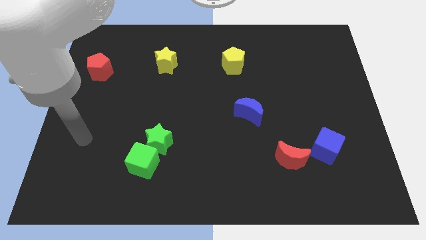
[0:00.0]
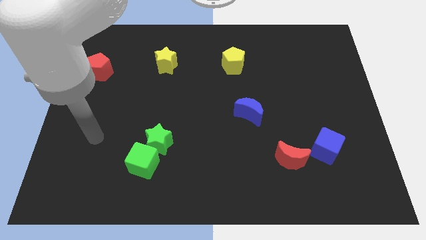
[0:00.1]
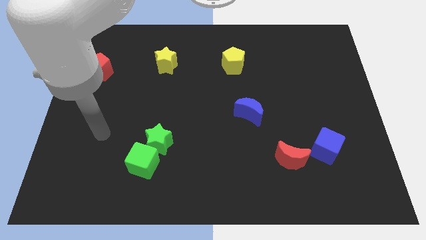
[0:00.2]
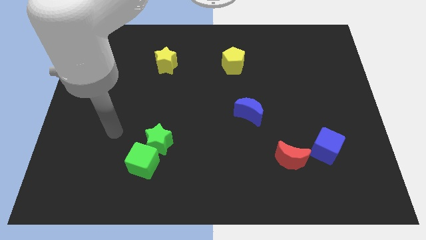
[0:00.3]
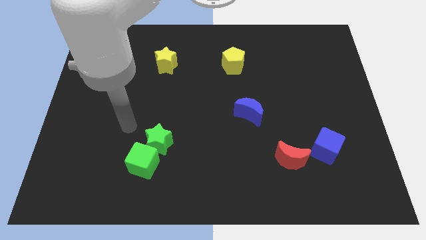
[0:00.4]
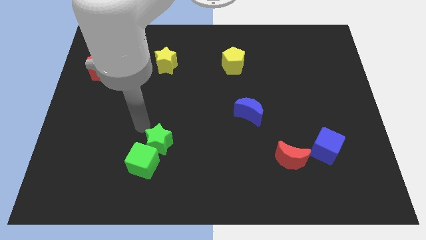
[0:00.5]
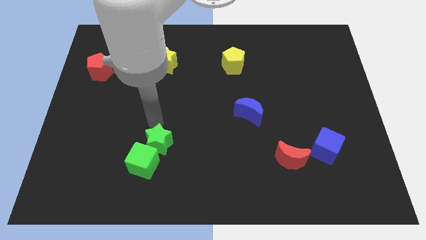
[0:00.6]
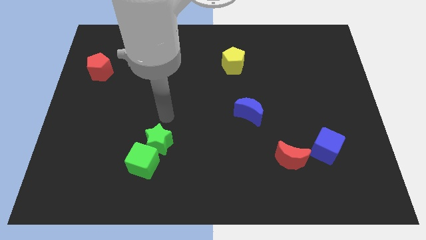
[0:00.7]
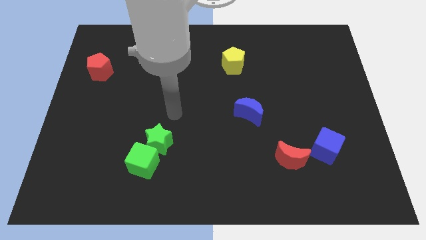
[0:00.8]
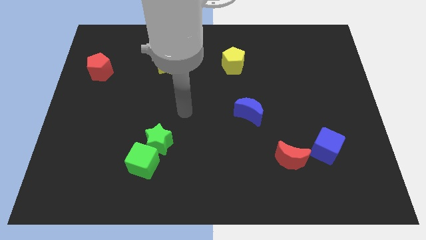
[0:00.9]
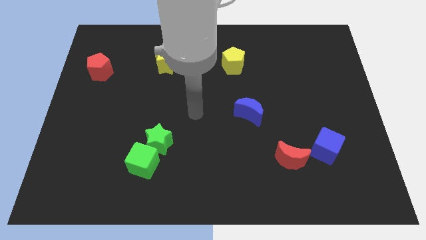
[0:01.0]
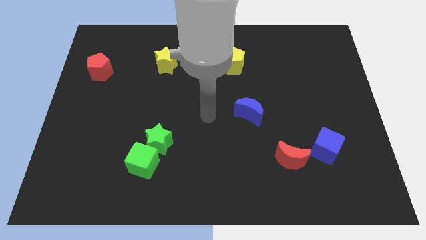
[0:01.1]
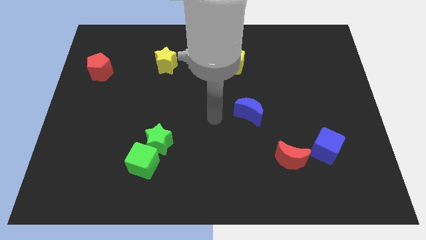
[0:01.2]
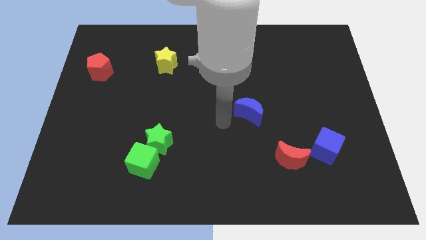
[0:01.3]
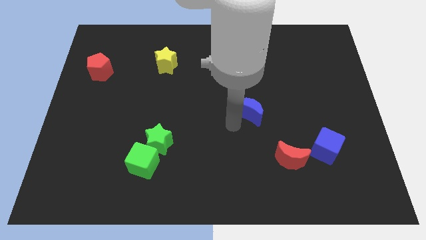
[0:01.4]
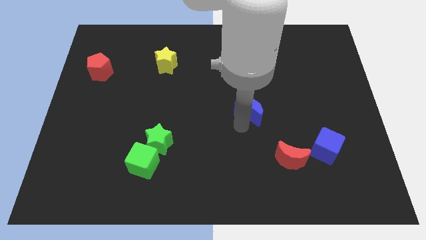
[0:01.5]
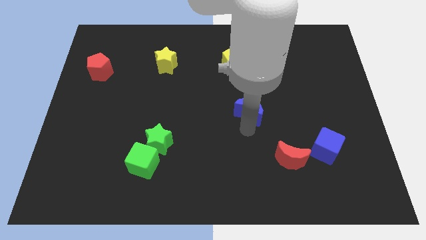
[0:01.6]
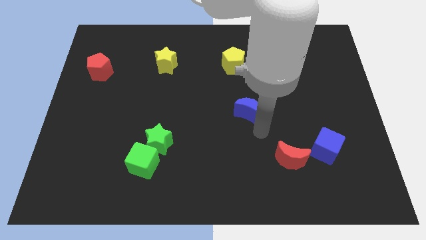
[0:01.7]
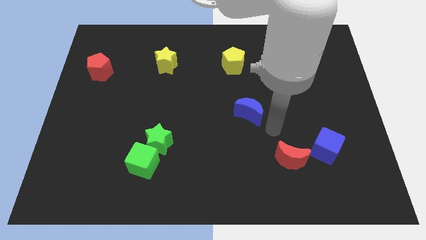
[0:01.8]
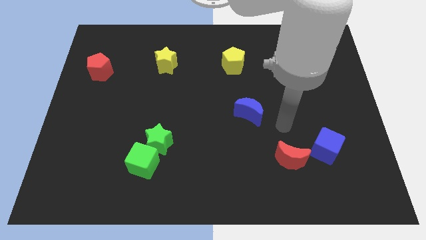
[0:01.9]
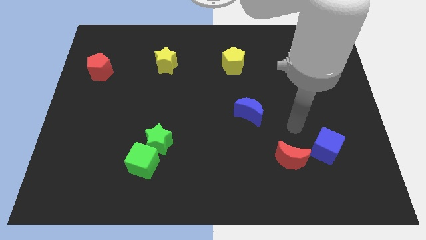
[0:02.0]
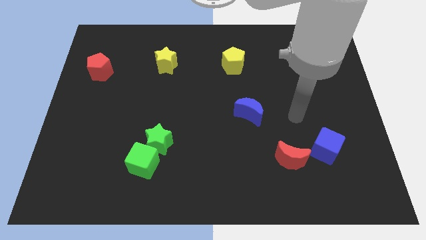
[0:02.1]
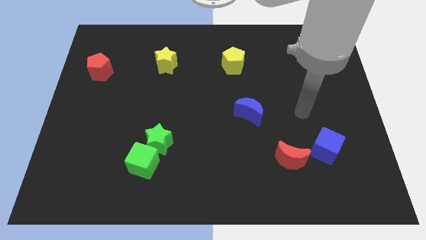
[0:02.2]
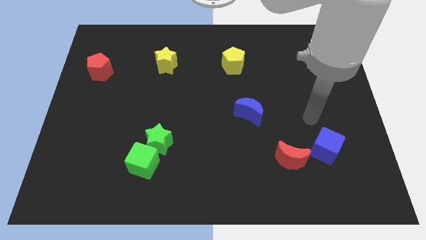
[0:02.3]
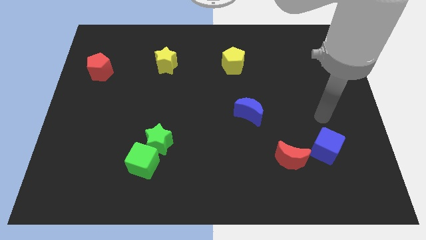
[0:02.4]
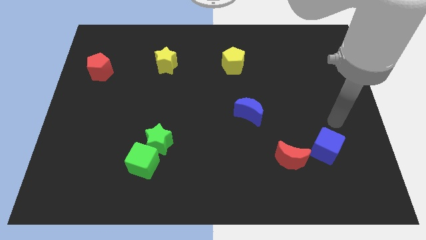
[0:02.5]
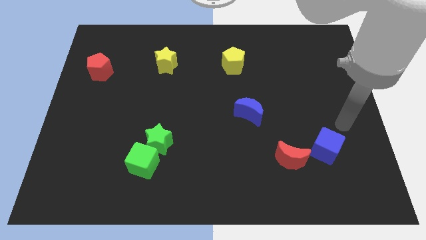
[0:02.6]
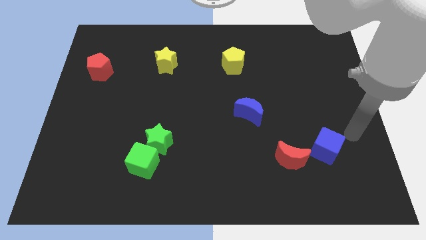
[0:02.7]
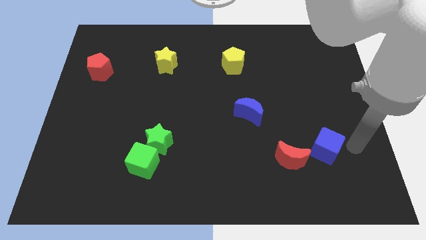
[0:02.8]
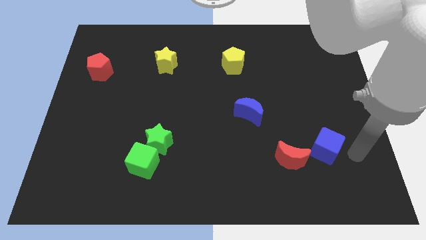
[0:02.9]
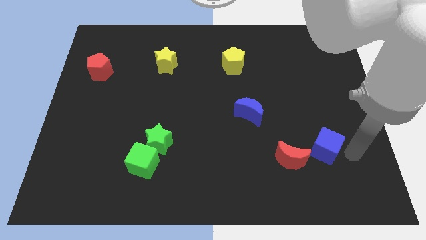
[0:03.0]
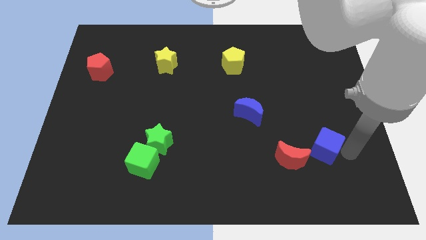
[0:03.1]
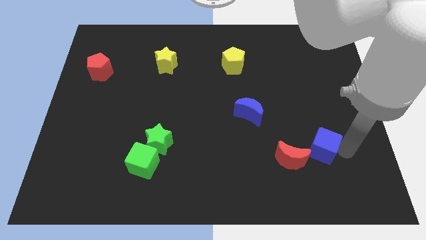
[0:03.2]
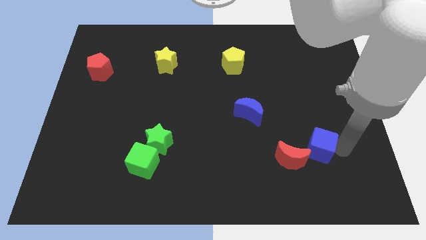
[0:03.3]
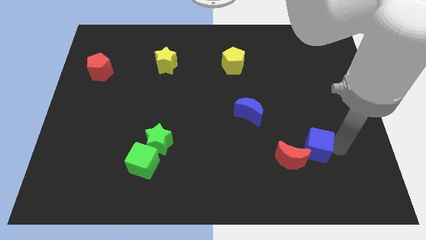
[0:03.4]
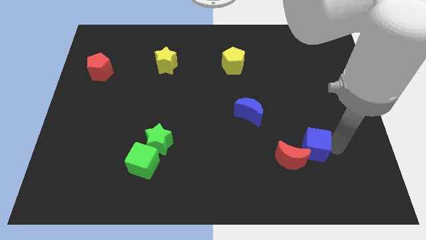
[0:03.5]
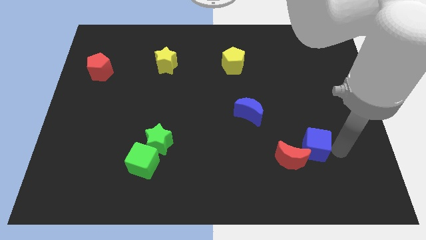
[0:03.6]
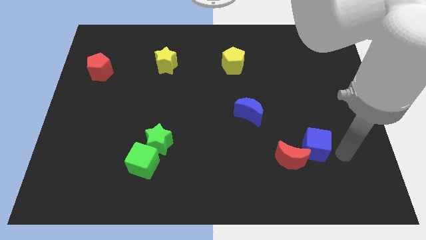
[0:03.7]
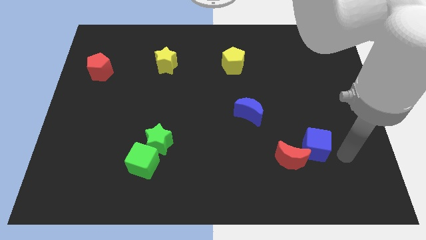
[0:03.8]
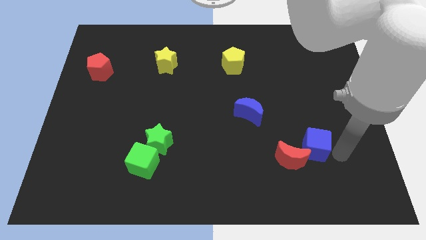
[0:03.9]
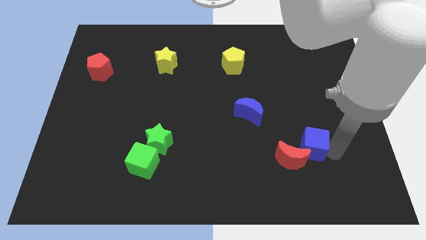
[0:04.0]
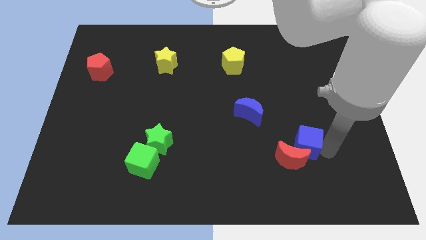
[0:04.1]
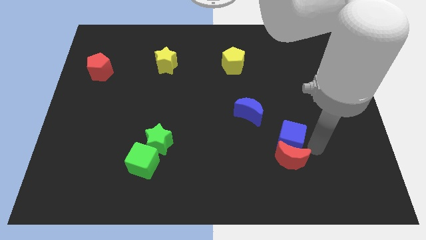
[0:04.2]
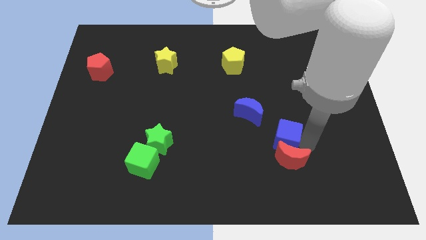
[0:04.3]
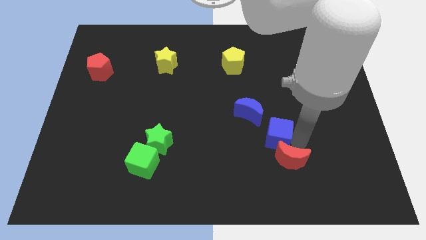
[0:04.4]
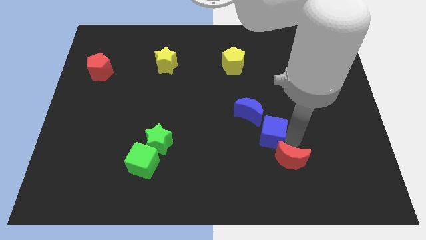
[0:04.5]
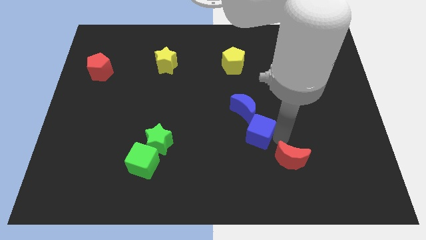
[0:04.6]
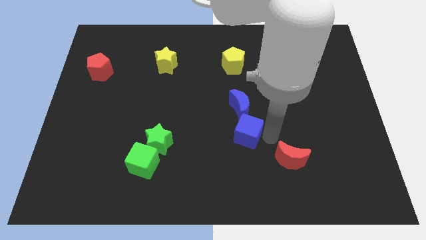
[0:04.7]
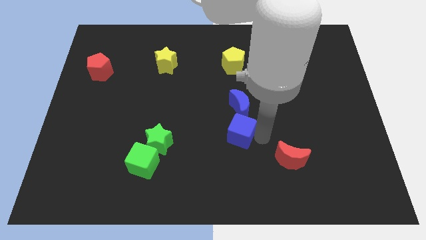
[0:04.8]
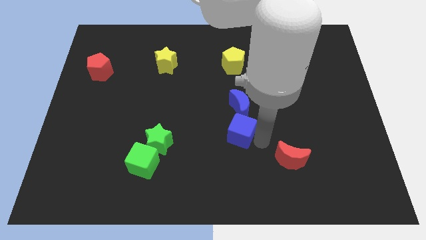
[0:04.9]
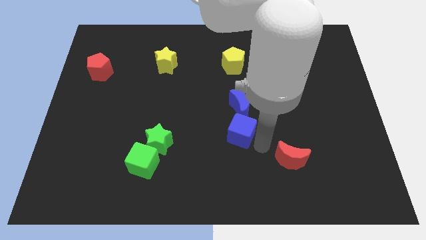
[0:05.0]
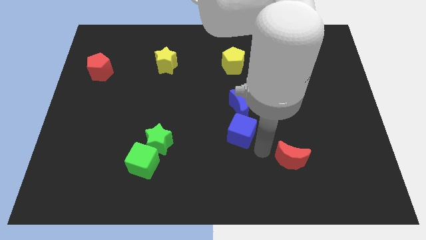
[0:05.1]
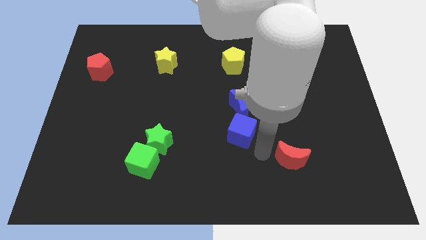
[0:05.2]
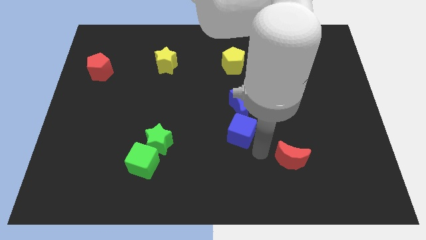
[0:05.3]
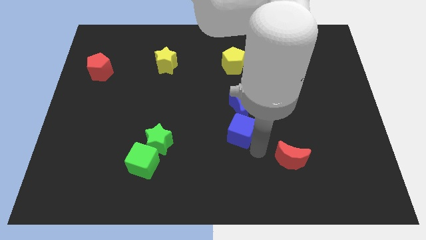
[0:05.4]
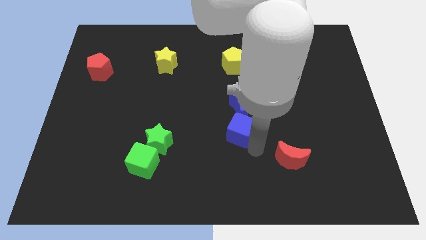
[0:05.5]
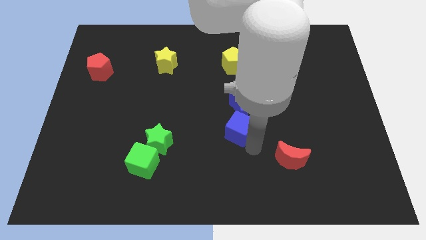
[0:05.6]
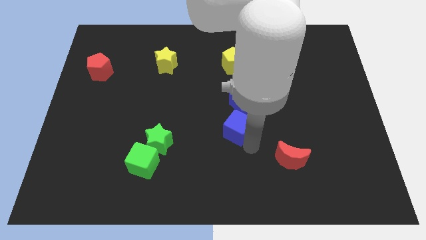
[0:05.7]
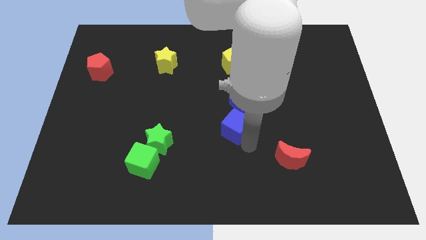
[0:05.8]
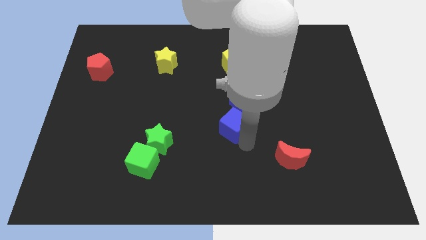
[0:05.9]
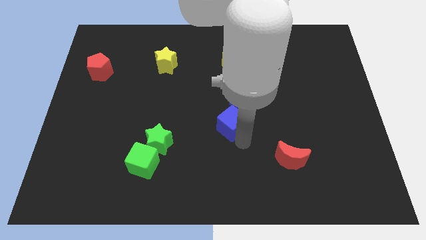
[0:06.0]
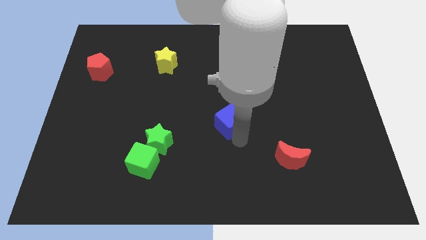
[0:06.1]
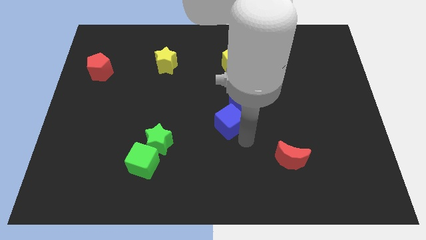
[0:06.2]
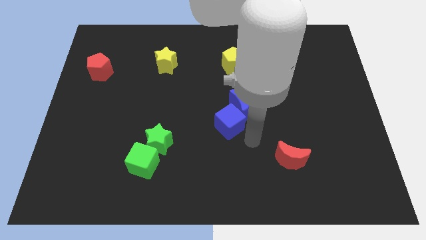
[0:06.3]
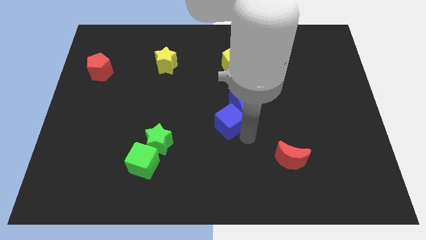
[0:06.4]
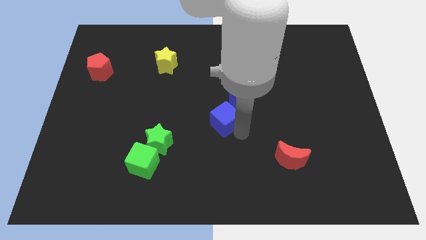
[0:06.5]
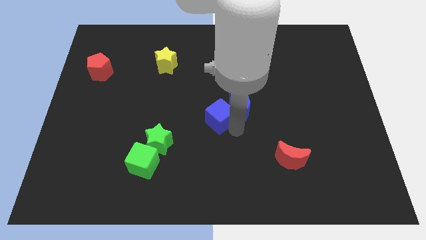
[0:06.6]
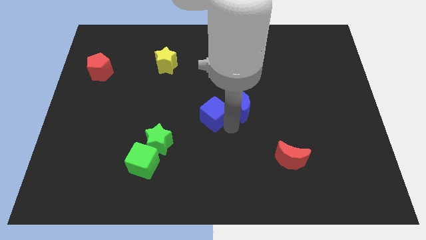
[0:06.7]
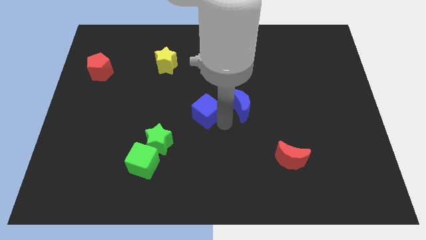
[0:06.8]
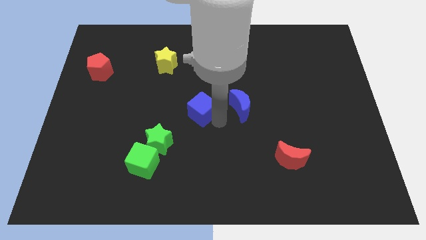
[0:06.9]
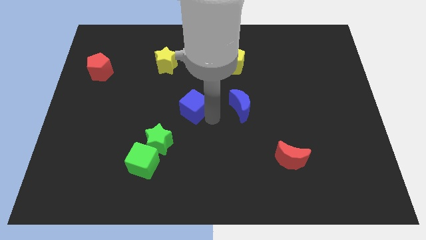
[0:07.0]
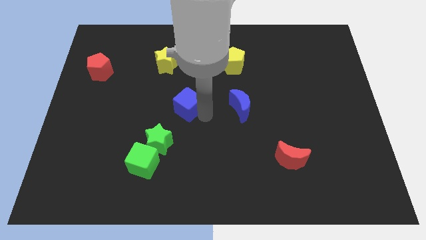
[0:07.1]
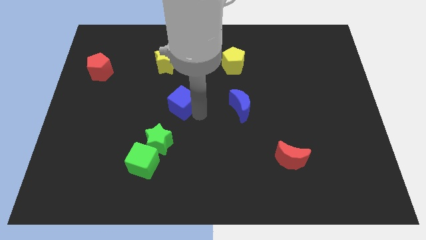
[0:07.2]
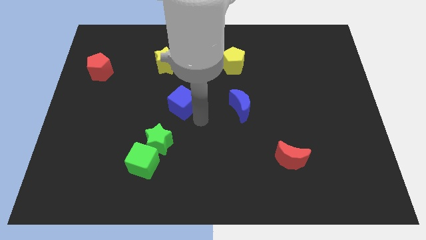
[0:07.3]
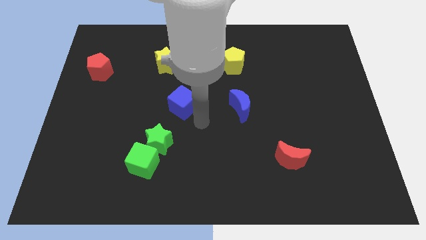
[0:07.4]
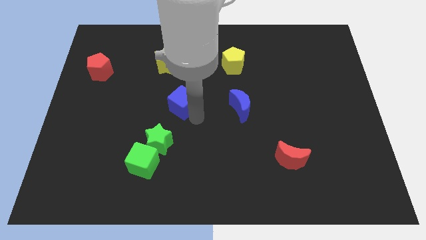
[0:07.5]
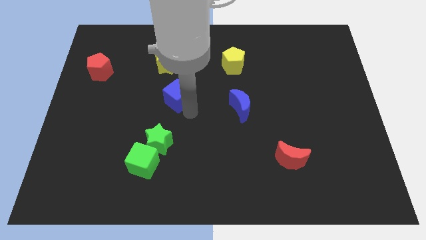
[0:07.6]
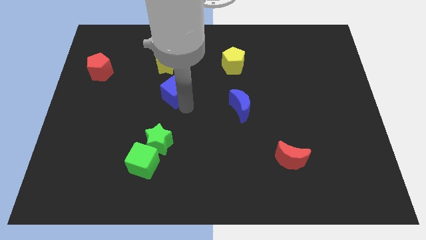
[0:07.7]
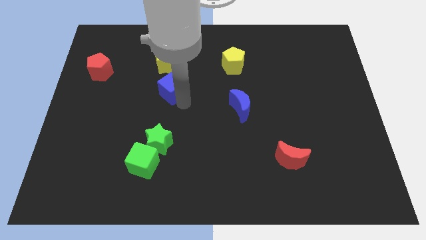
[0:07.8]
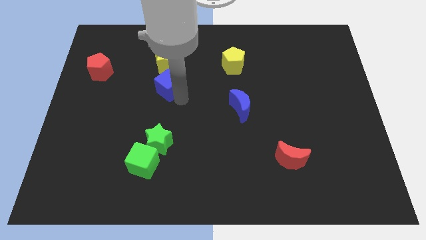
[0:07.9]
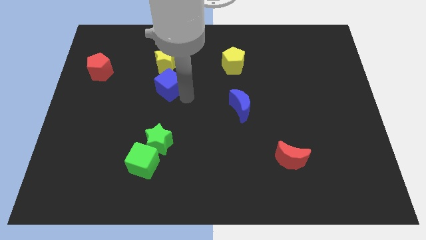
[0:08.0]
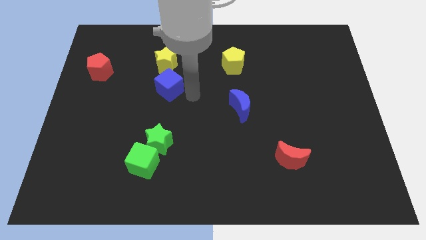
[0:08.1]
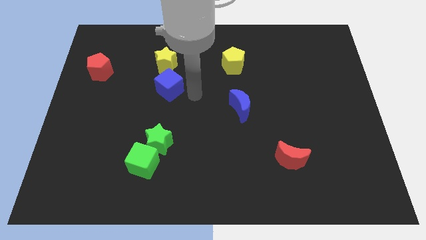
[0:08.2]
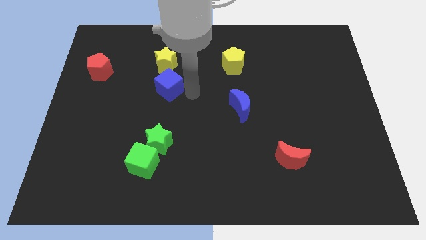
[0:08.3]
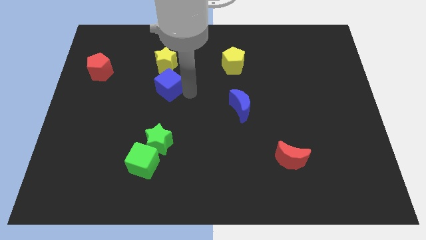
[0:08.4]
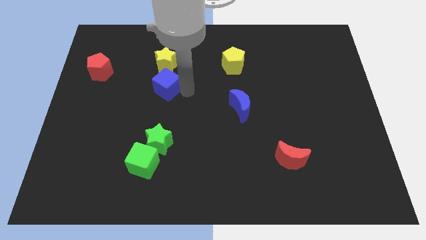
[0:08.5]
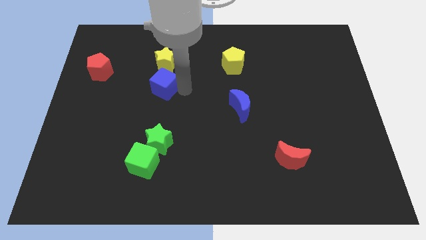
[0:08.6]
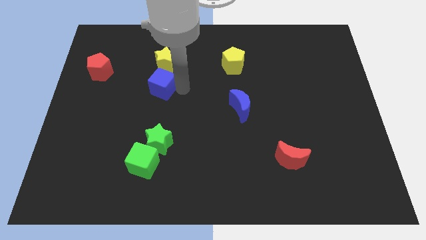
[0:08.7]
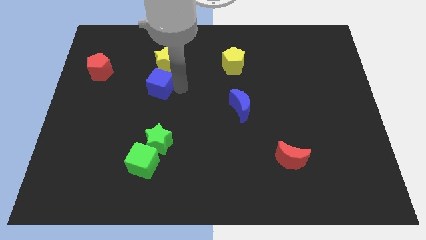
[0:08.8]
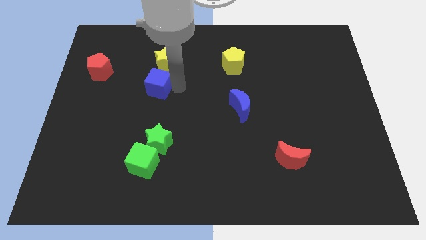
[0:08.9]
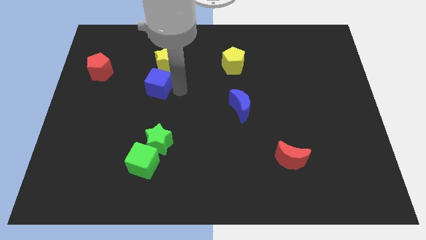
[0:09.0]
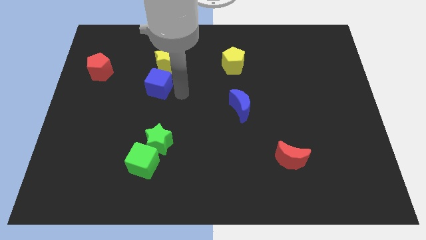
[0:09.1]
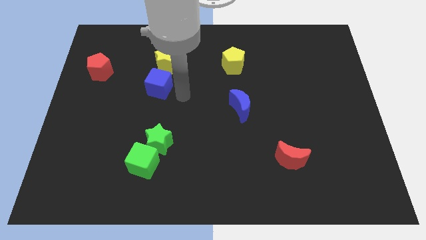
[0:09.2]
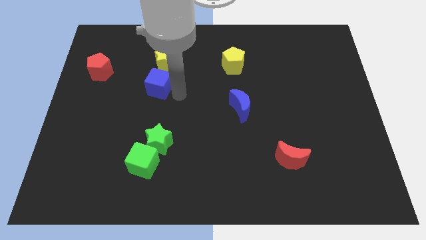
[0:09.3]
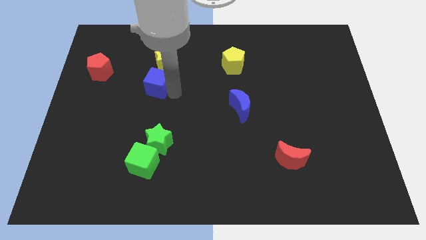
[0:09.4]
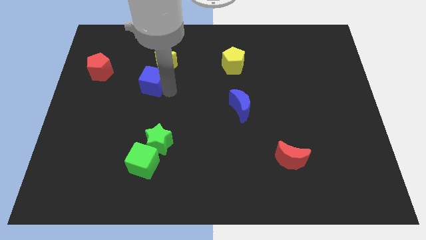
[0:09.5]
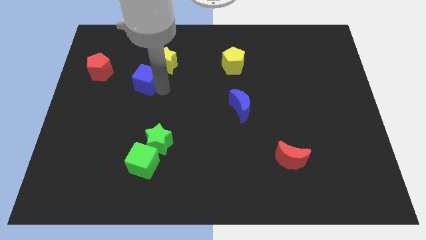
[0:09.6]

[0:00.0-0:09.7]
move the blue cube right of the red pentagon
